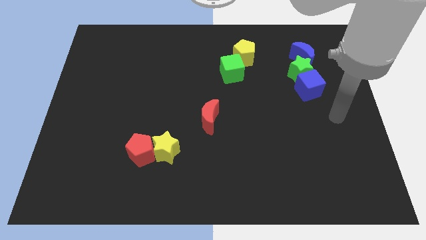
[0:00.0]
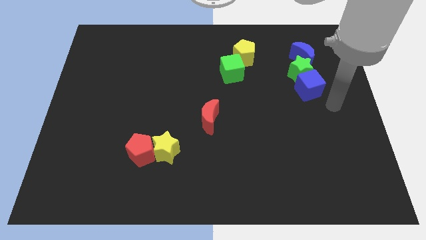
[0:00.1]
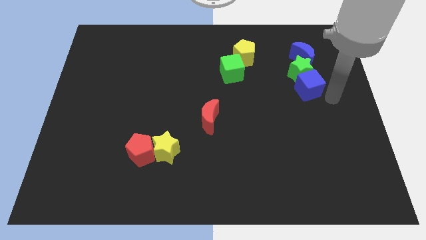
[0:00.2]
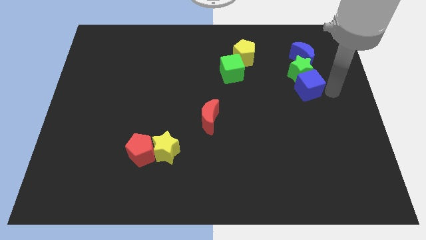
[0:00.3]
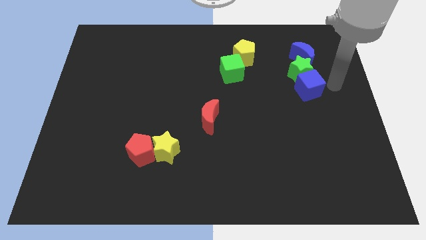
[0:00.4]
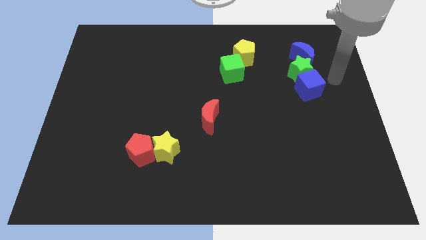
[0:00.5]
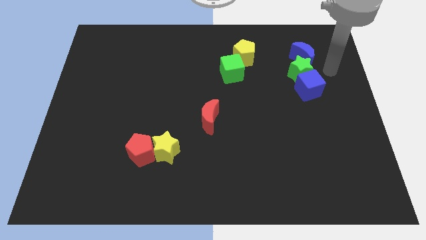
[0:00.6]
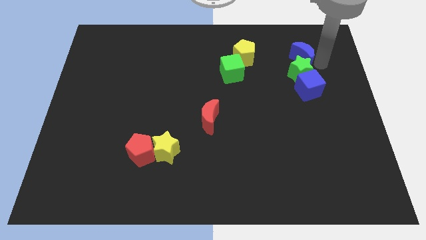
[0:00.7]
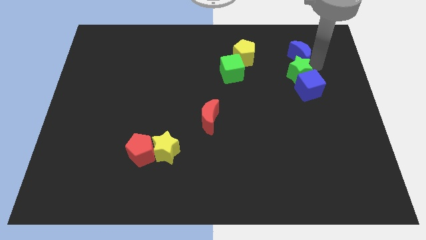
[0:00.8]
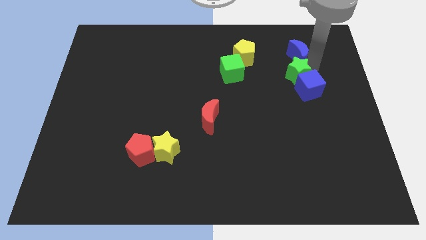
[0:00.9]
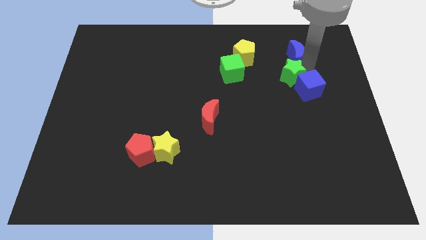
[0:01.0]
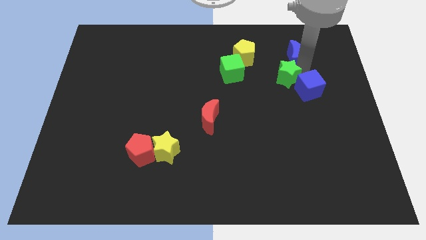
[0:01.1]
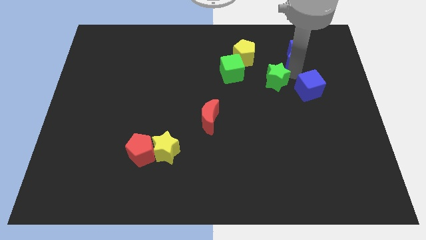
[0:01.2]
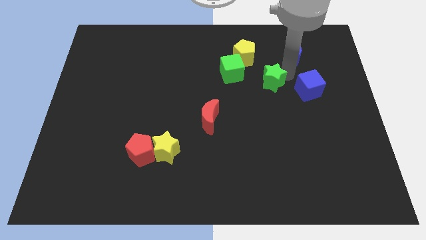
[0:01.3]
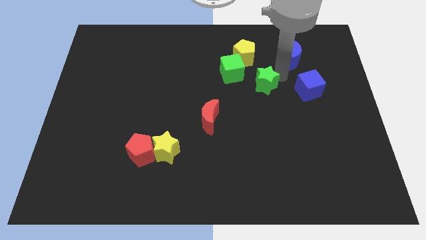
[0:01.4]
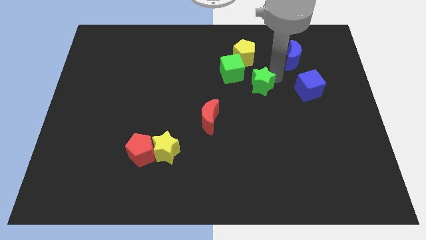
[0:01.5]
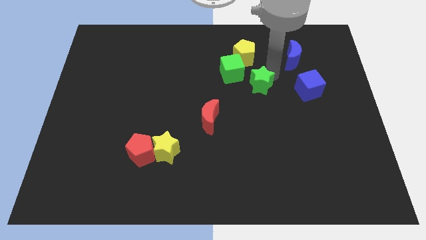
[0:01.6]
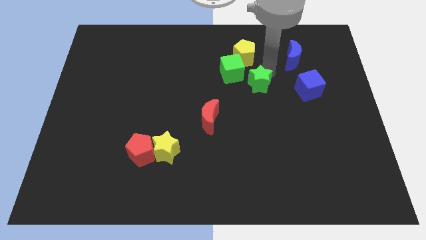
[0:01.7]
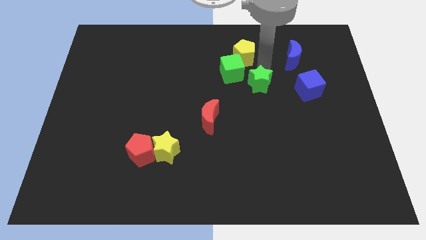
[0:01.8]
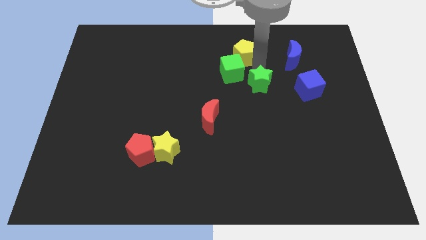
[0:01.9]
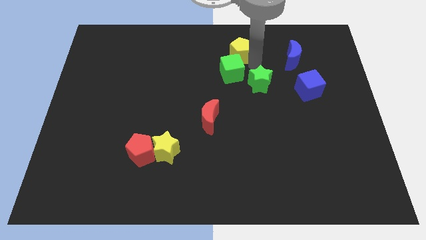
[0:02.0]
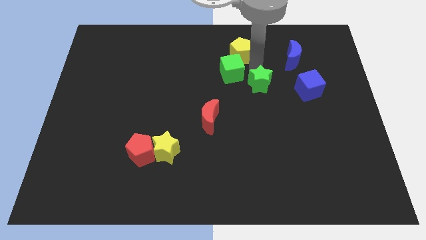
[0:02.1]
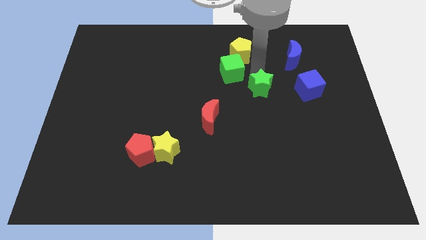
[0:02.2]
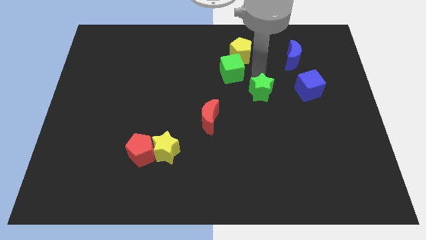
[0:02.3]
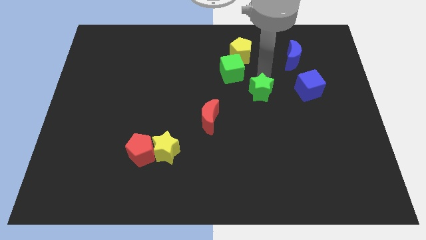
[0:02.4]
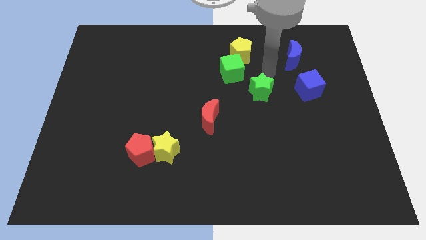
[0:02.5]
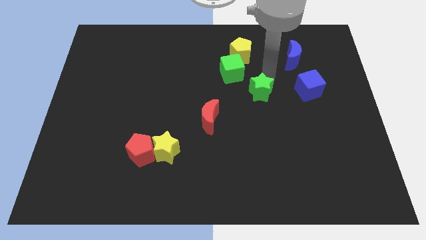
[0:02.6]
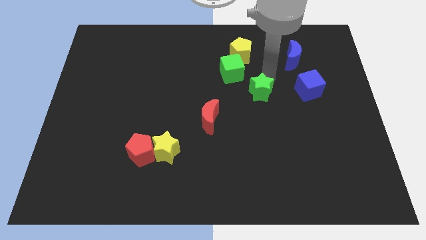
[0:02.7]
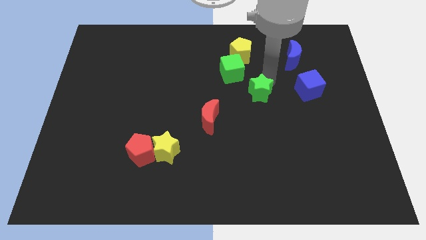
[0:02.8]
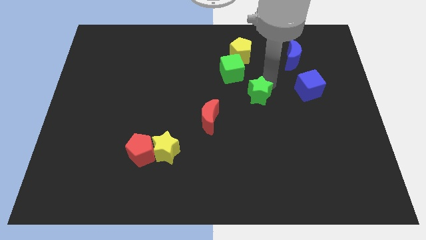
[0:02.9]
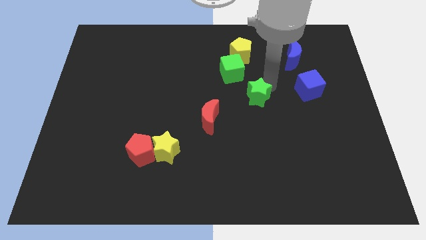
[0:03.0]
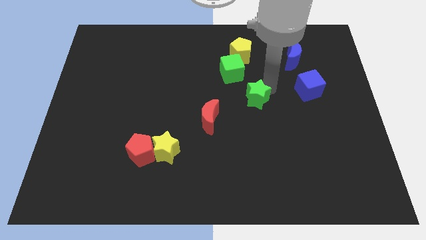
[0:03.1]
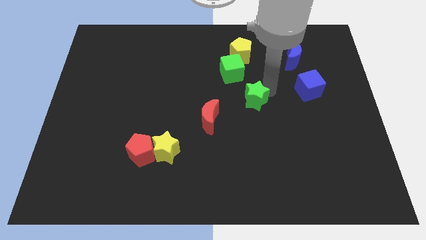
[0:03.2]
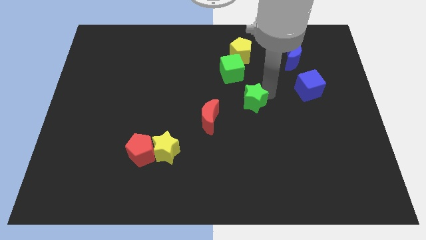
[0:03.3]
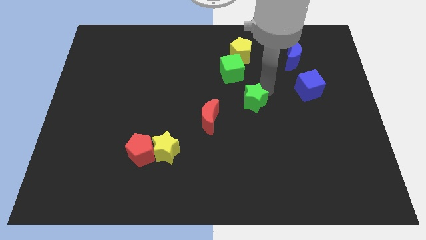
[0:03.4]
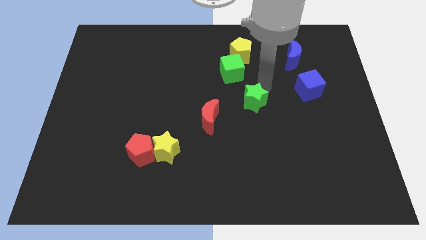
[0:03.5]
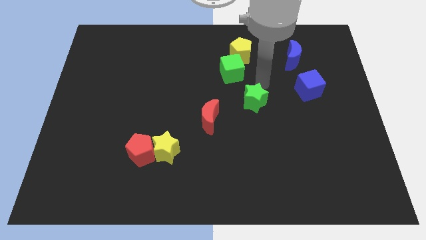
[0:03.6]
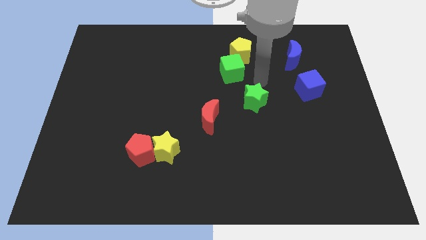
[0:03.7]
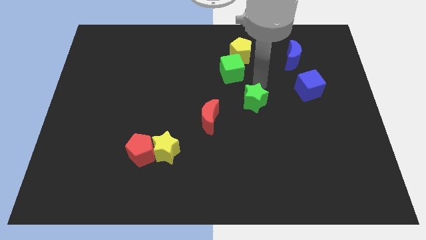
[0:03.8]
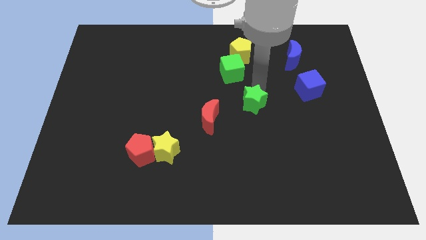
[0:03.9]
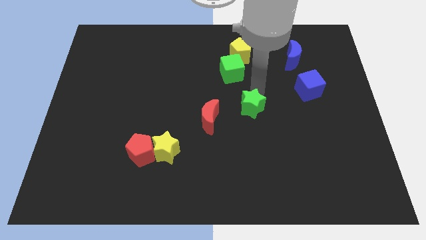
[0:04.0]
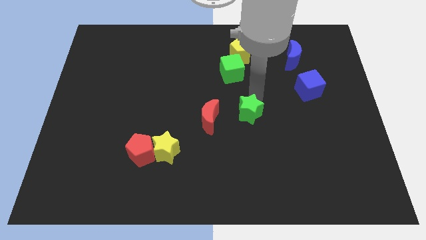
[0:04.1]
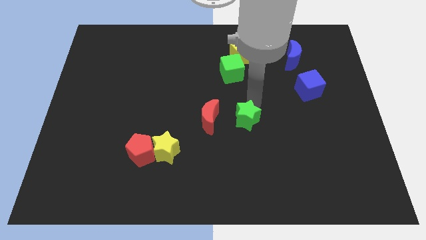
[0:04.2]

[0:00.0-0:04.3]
push the green star downwards and left

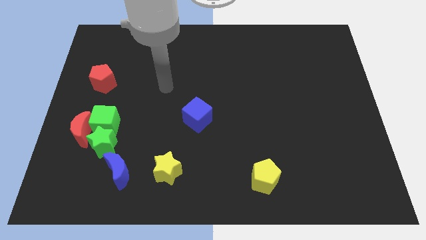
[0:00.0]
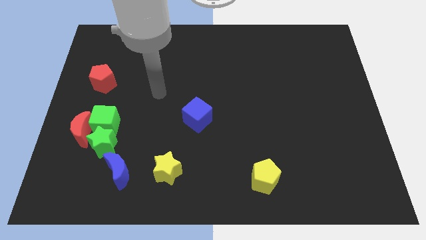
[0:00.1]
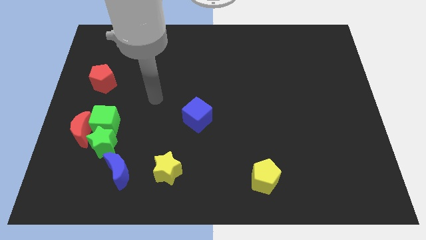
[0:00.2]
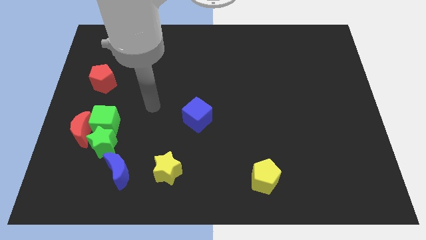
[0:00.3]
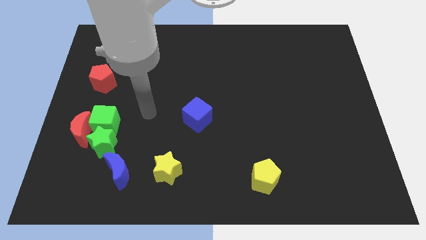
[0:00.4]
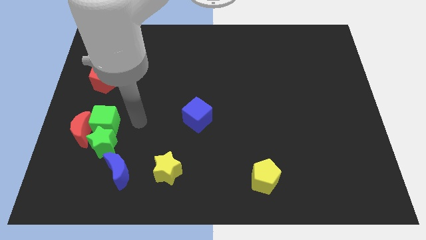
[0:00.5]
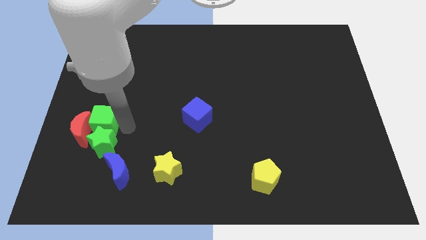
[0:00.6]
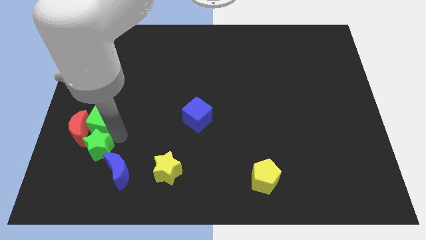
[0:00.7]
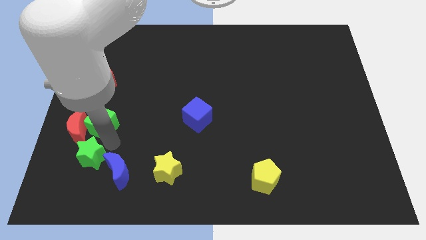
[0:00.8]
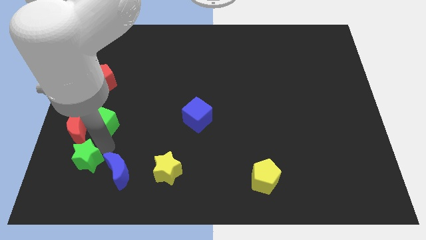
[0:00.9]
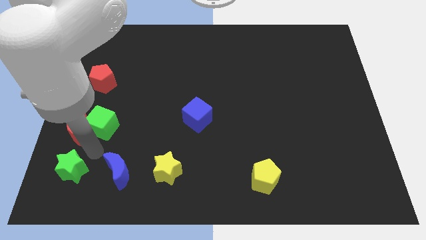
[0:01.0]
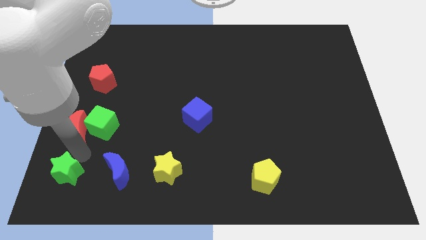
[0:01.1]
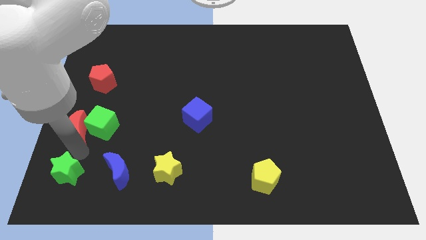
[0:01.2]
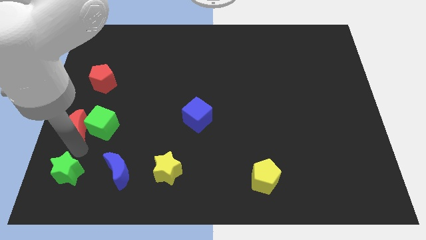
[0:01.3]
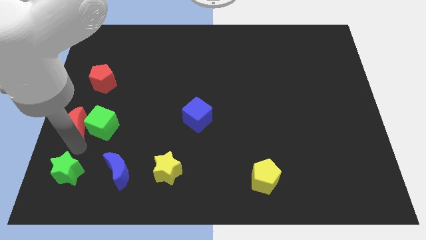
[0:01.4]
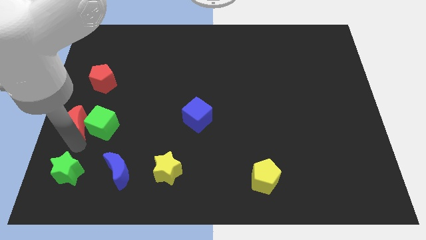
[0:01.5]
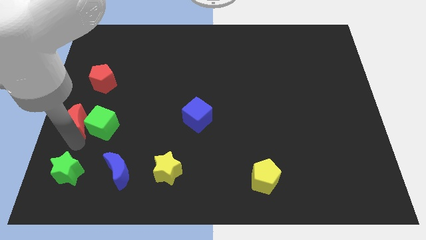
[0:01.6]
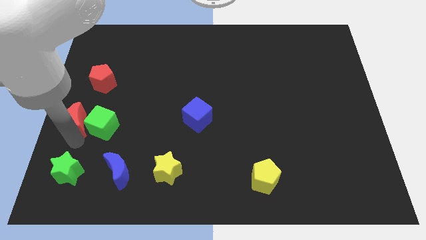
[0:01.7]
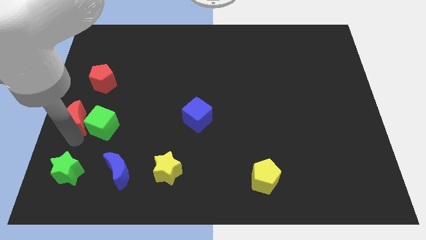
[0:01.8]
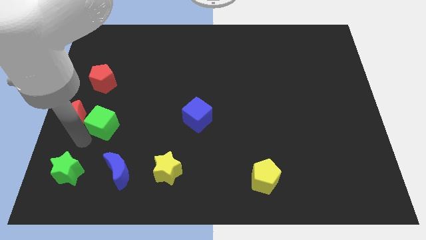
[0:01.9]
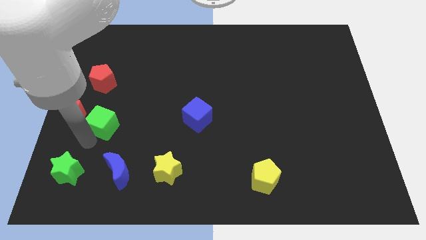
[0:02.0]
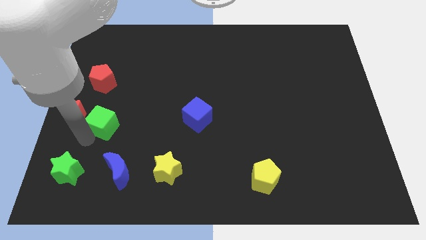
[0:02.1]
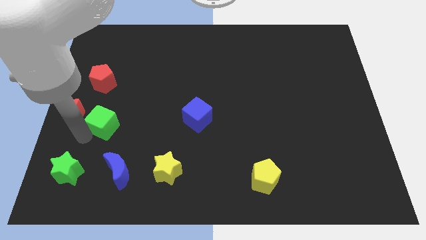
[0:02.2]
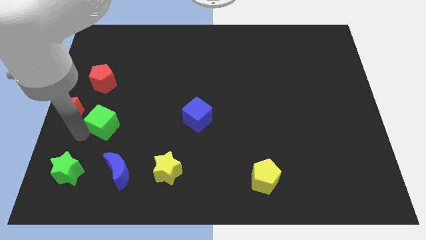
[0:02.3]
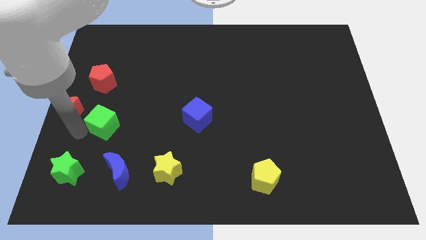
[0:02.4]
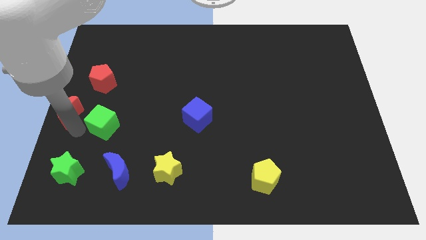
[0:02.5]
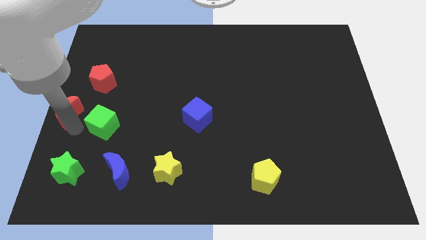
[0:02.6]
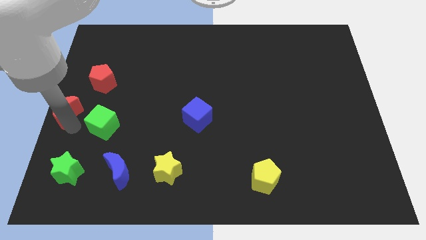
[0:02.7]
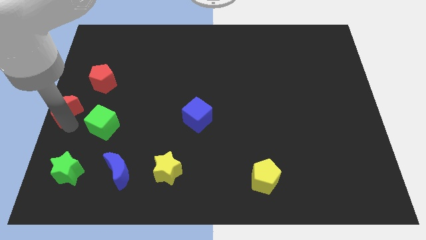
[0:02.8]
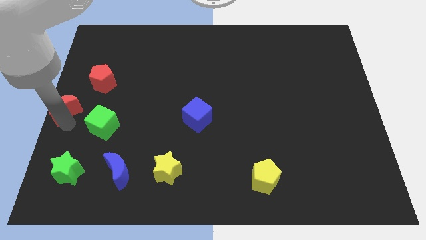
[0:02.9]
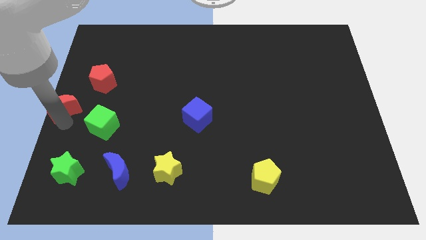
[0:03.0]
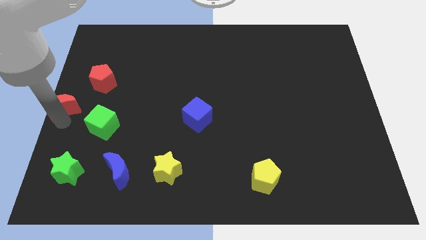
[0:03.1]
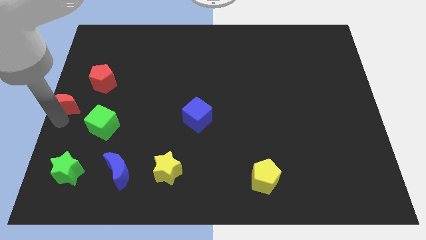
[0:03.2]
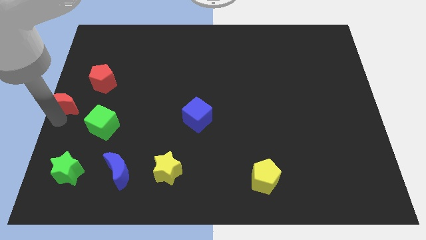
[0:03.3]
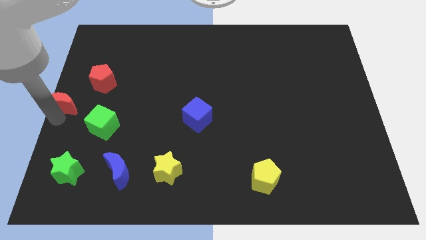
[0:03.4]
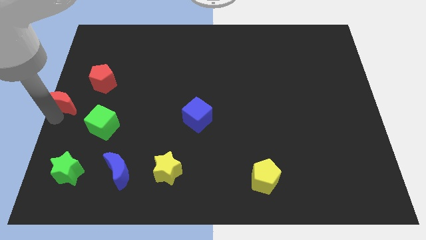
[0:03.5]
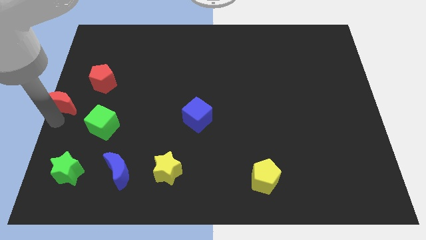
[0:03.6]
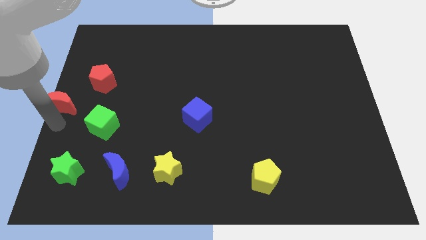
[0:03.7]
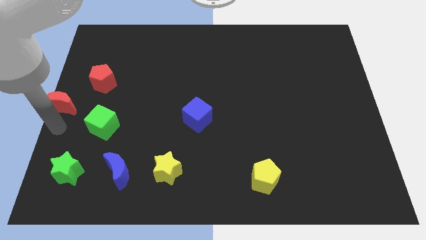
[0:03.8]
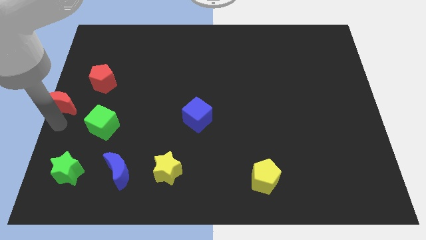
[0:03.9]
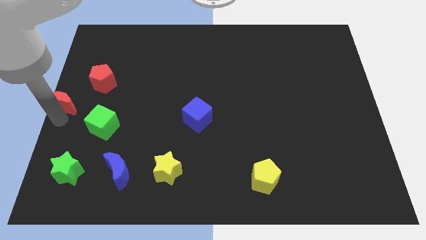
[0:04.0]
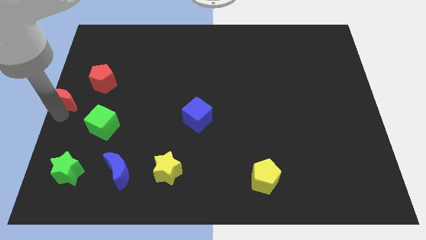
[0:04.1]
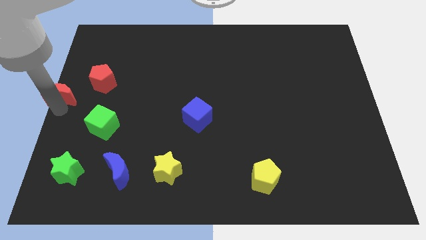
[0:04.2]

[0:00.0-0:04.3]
slightly move the red moon up
